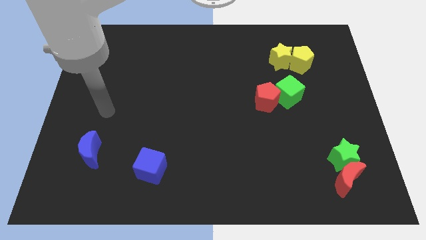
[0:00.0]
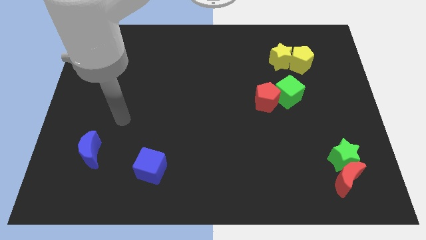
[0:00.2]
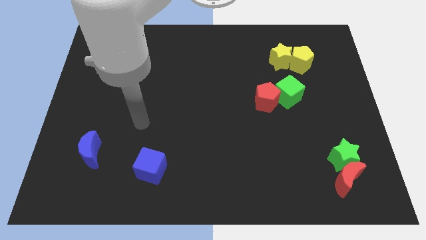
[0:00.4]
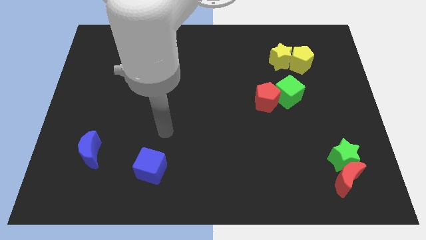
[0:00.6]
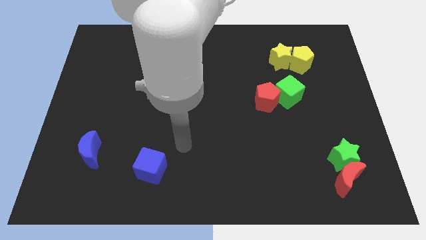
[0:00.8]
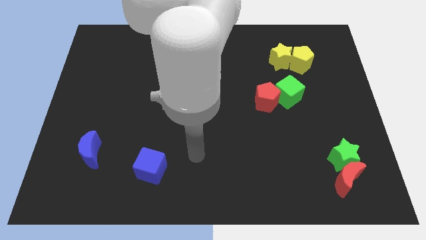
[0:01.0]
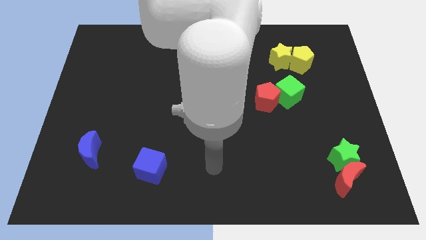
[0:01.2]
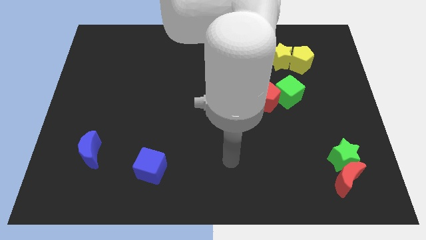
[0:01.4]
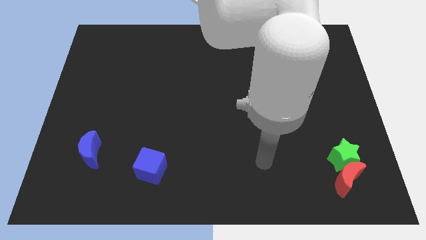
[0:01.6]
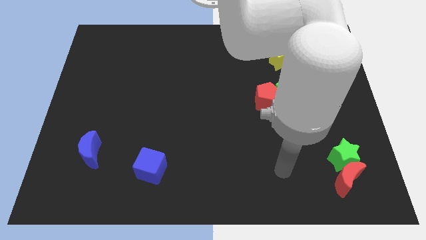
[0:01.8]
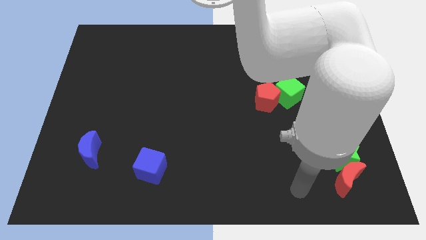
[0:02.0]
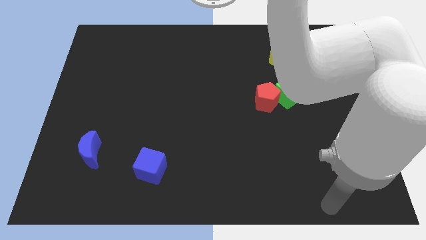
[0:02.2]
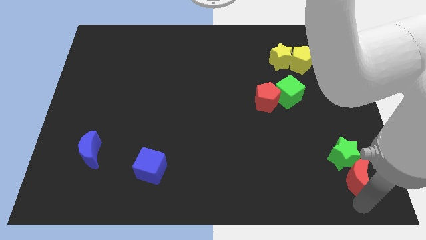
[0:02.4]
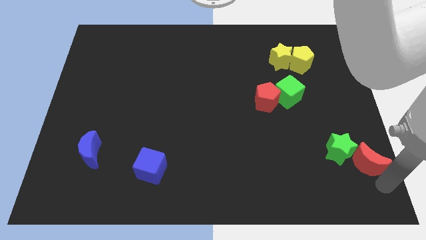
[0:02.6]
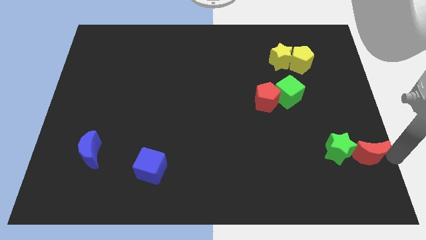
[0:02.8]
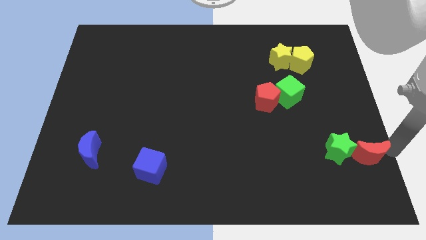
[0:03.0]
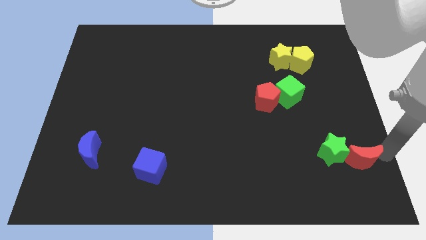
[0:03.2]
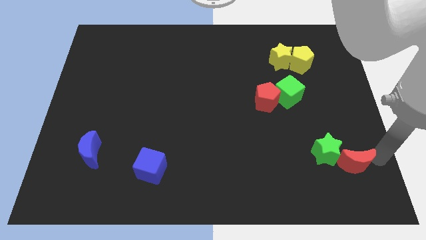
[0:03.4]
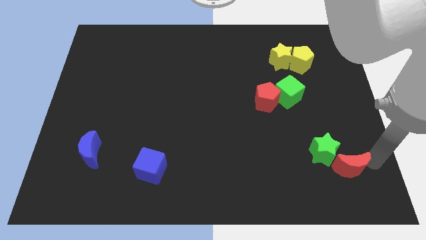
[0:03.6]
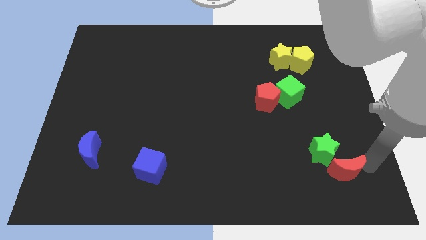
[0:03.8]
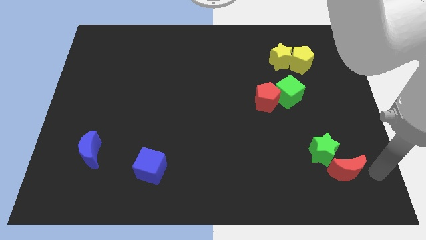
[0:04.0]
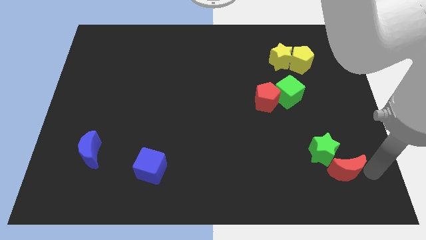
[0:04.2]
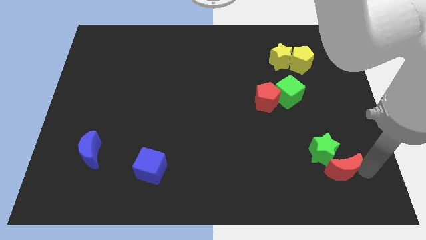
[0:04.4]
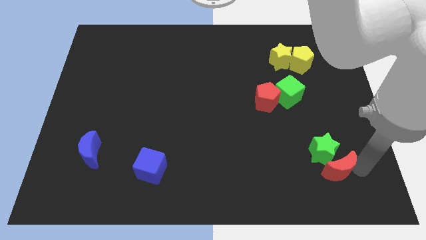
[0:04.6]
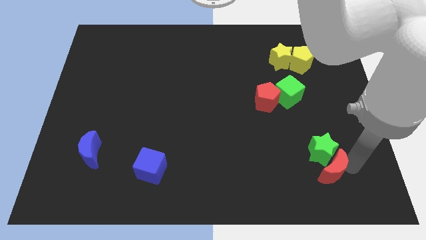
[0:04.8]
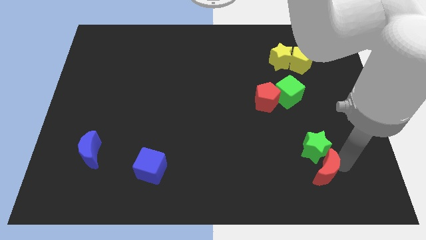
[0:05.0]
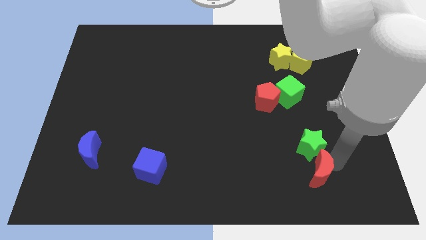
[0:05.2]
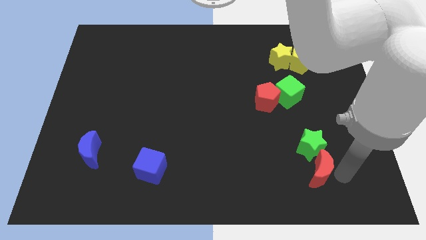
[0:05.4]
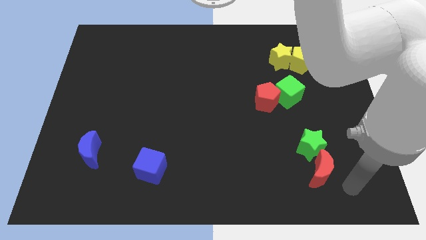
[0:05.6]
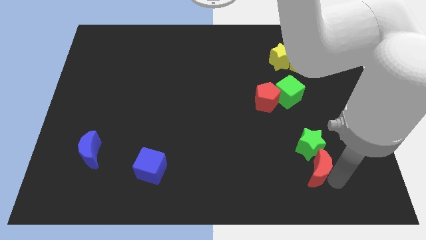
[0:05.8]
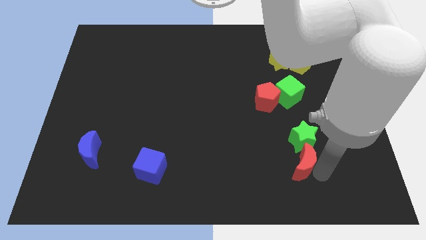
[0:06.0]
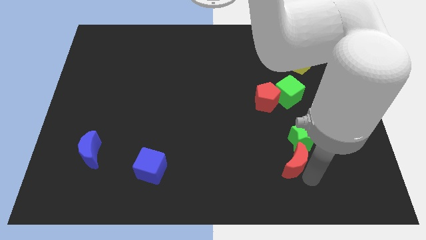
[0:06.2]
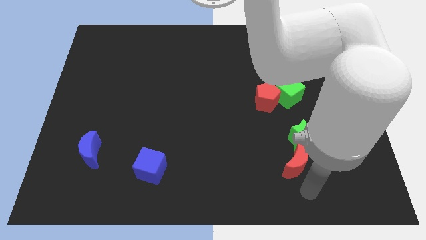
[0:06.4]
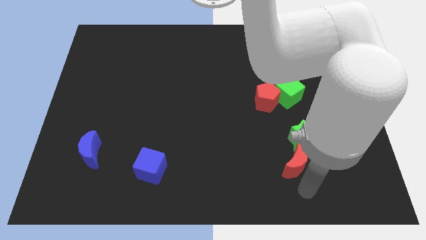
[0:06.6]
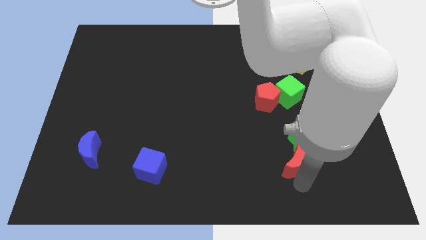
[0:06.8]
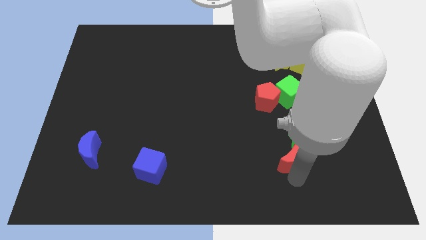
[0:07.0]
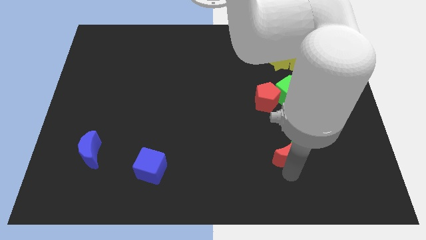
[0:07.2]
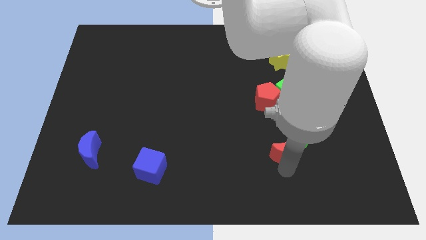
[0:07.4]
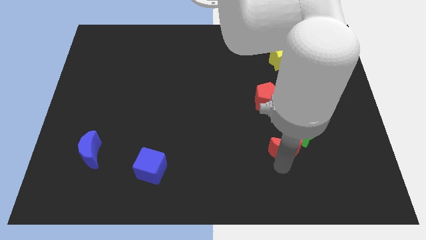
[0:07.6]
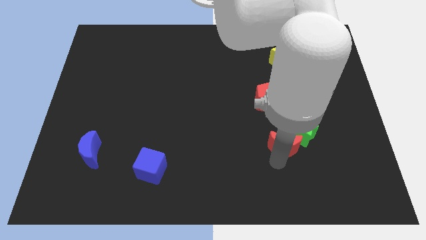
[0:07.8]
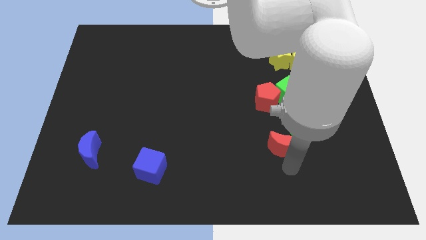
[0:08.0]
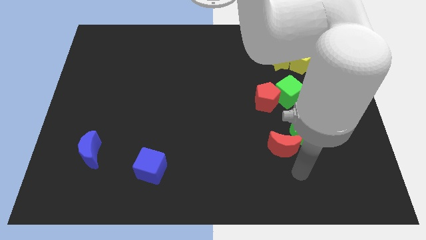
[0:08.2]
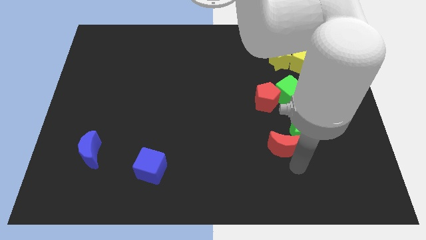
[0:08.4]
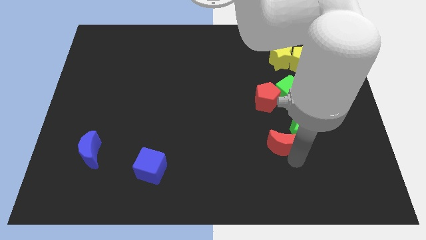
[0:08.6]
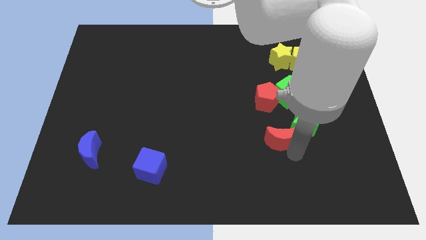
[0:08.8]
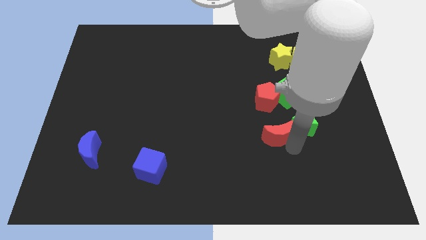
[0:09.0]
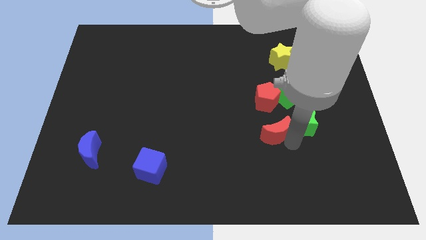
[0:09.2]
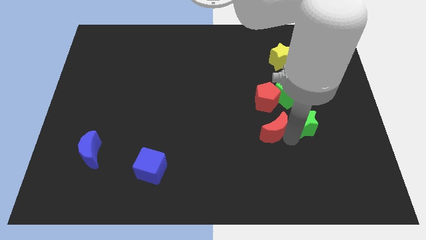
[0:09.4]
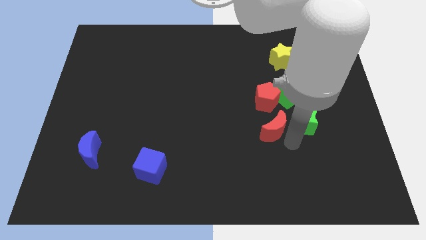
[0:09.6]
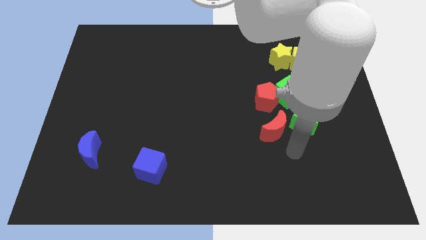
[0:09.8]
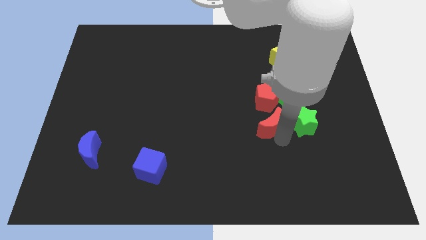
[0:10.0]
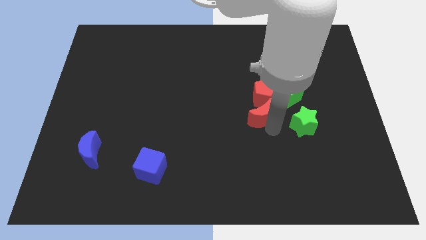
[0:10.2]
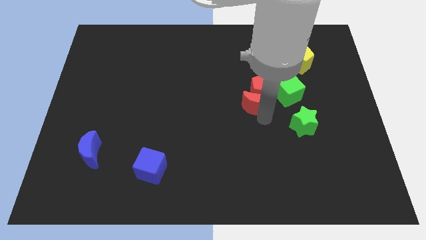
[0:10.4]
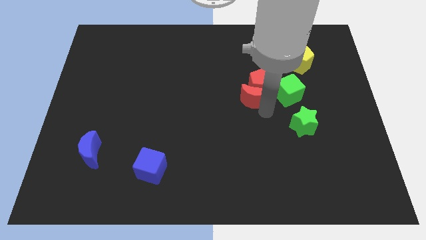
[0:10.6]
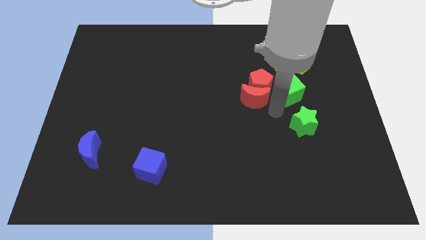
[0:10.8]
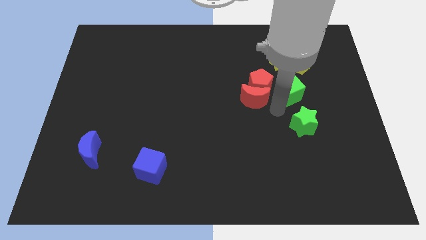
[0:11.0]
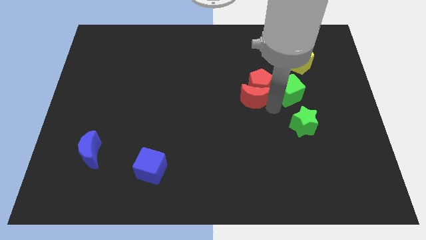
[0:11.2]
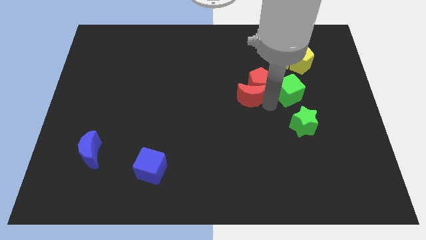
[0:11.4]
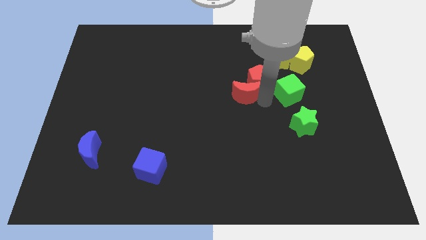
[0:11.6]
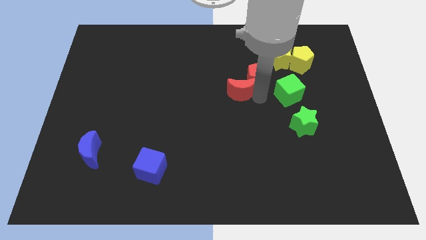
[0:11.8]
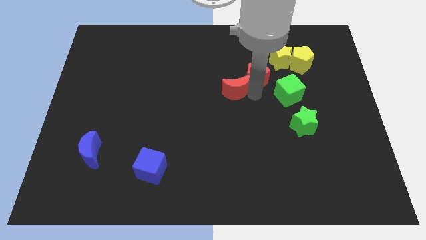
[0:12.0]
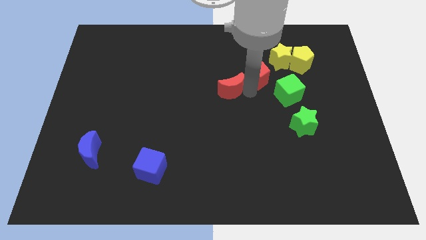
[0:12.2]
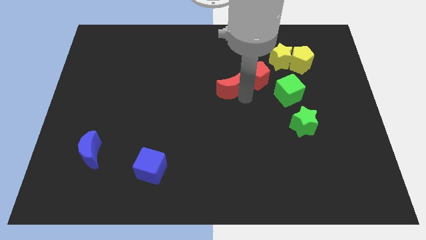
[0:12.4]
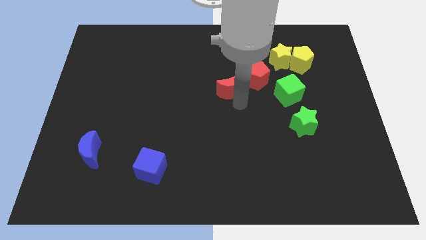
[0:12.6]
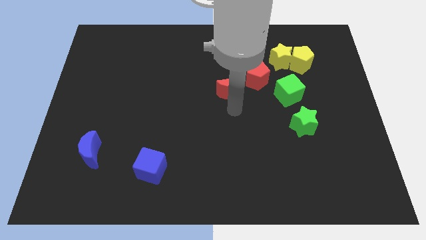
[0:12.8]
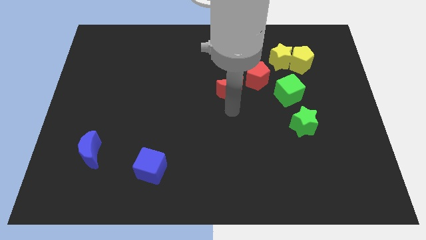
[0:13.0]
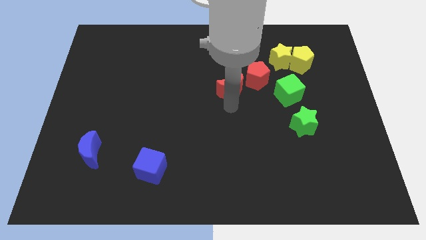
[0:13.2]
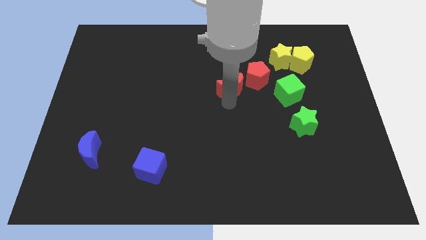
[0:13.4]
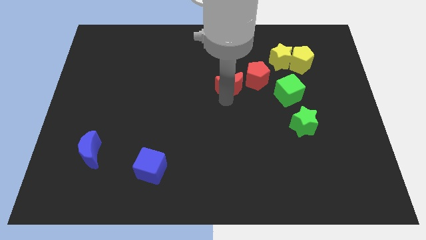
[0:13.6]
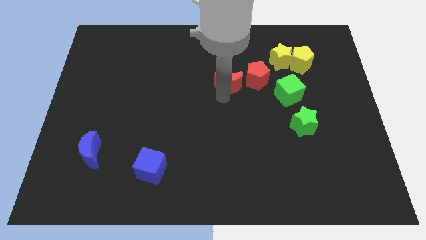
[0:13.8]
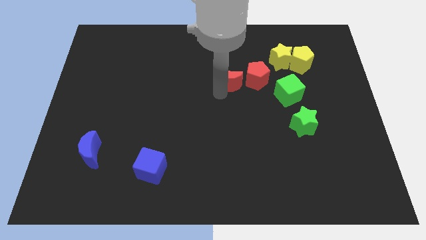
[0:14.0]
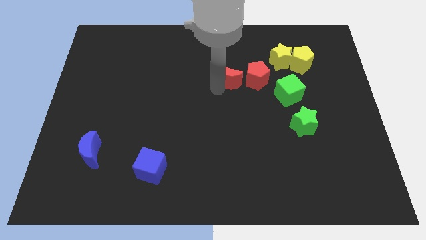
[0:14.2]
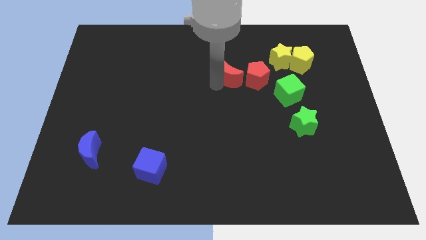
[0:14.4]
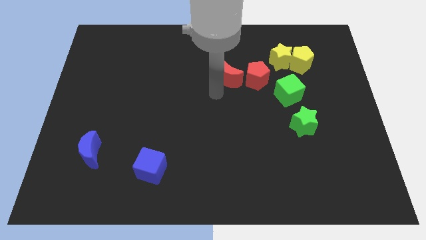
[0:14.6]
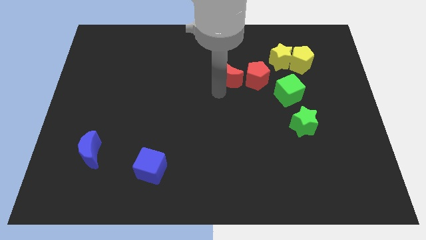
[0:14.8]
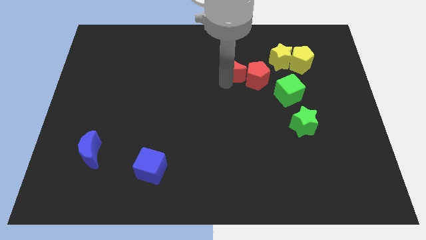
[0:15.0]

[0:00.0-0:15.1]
put the red moon to the left of the yellow star

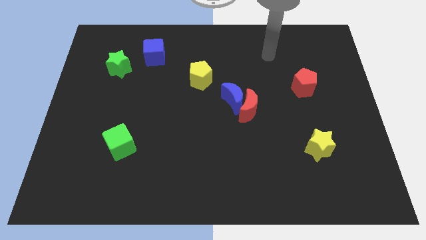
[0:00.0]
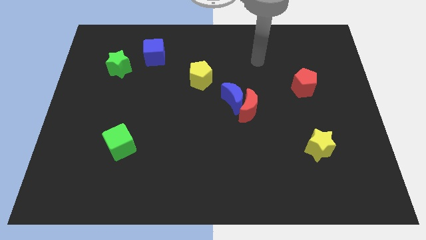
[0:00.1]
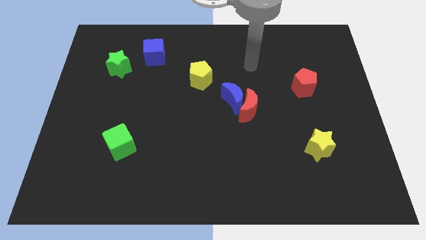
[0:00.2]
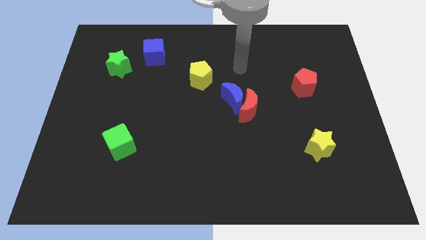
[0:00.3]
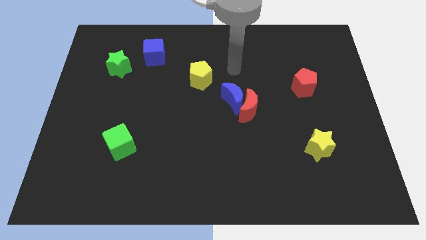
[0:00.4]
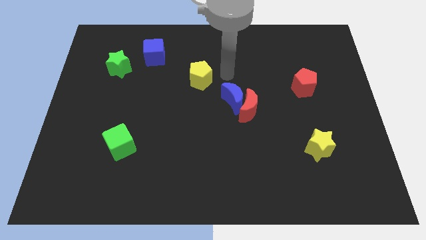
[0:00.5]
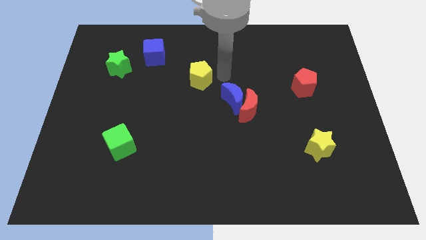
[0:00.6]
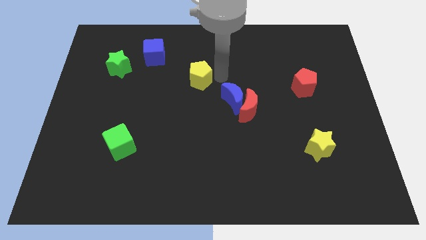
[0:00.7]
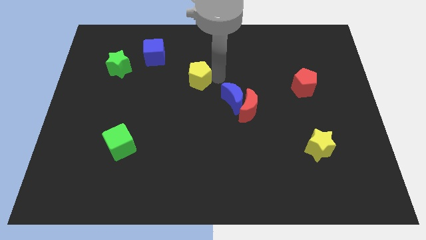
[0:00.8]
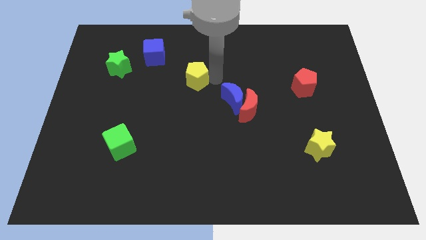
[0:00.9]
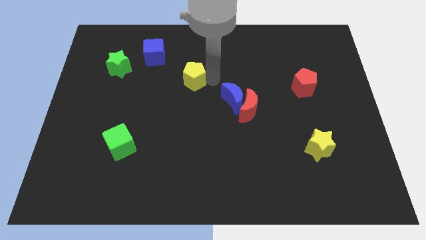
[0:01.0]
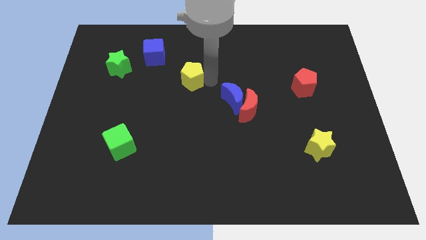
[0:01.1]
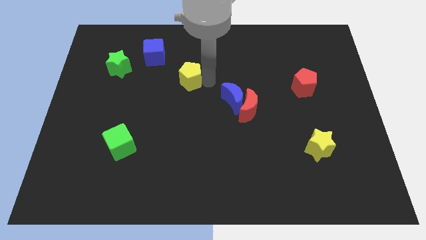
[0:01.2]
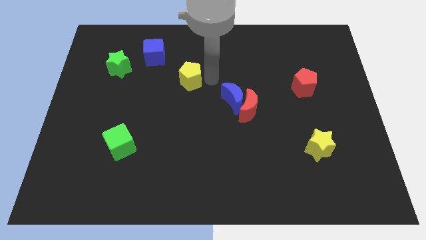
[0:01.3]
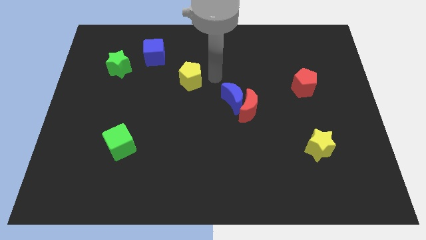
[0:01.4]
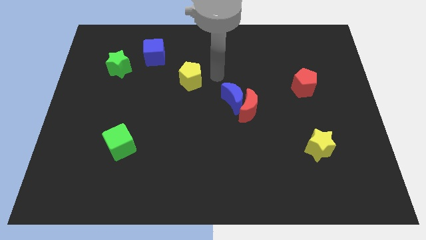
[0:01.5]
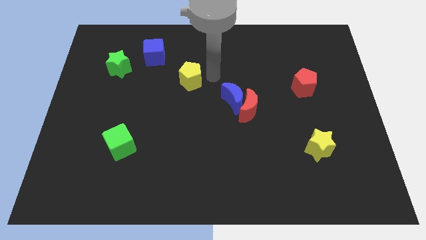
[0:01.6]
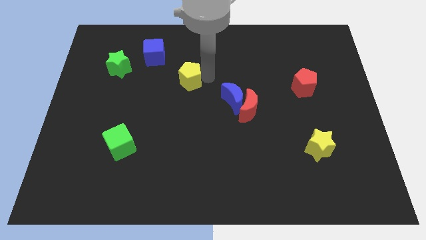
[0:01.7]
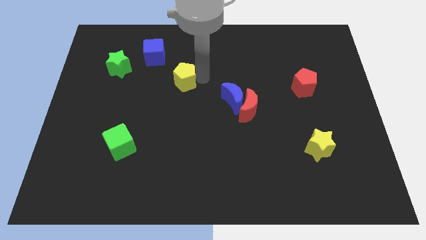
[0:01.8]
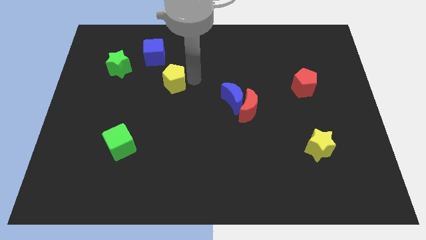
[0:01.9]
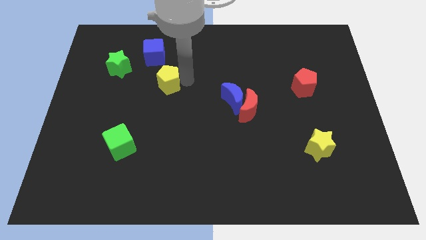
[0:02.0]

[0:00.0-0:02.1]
move the yellow pentagon below the blue cube
